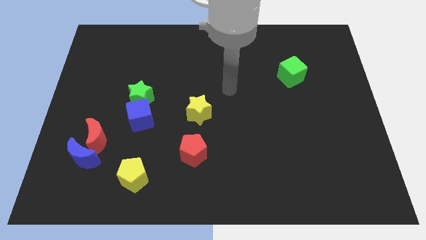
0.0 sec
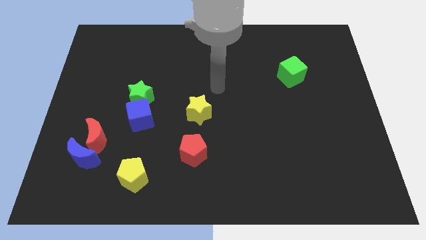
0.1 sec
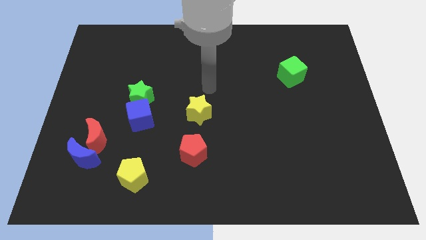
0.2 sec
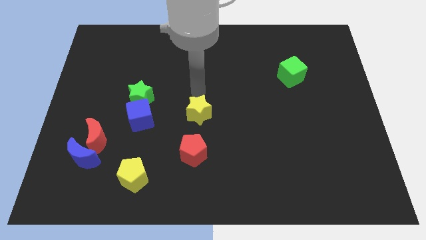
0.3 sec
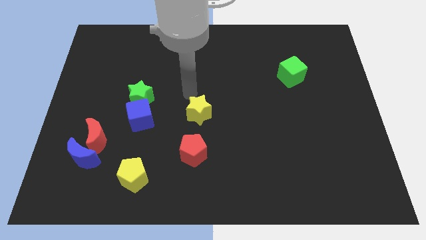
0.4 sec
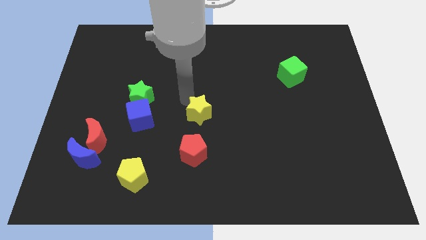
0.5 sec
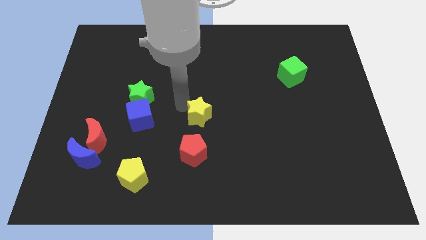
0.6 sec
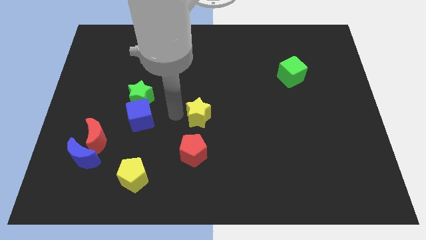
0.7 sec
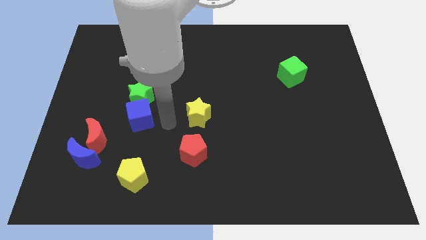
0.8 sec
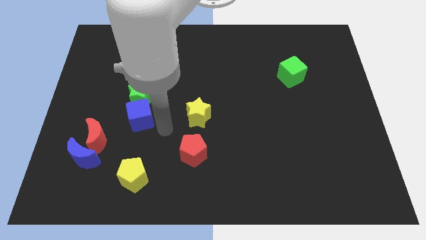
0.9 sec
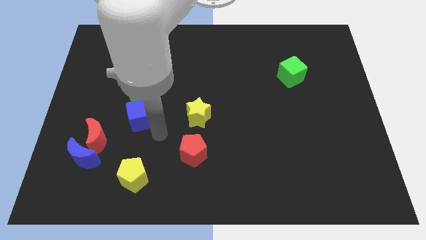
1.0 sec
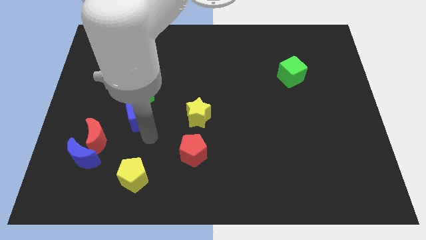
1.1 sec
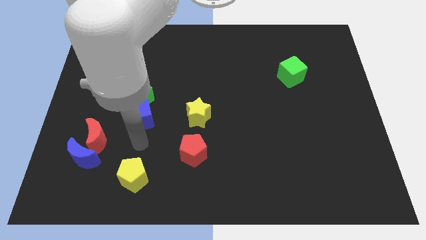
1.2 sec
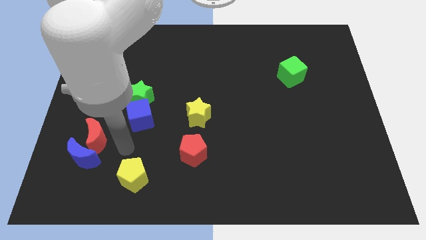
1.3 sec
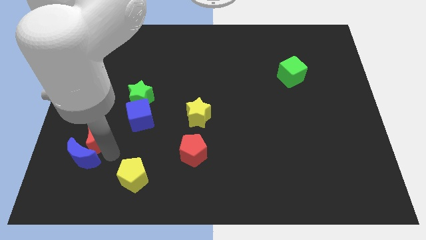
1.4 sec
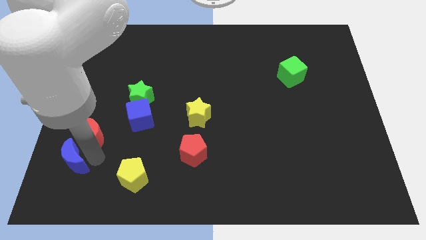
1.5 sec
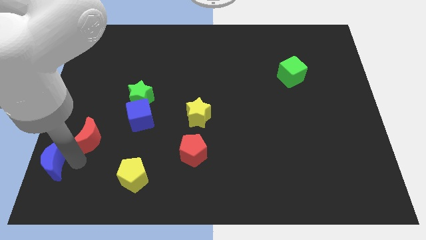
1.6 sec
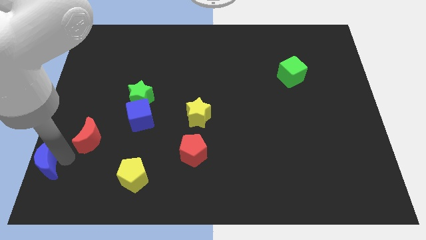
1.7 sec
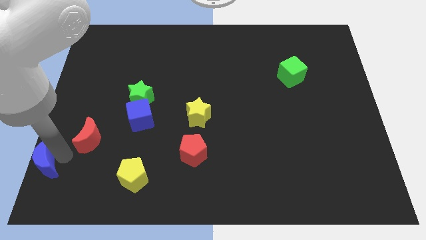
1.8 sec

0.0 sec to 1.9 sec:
separate the red moon from the blue moon

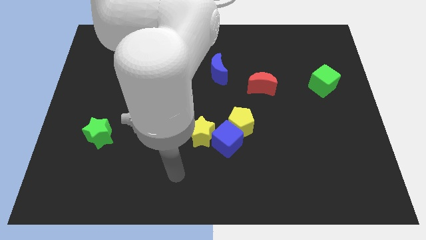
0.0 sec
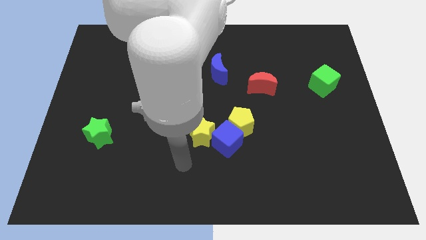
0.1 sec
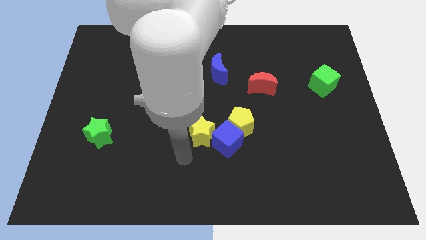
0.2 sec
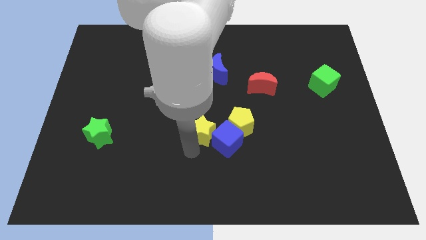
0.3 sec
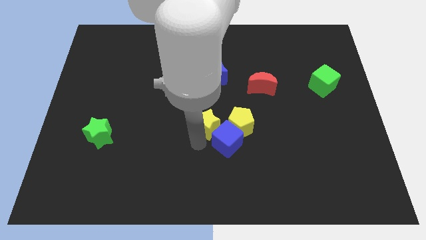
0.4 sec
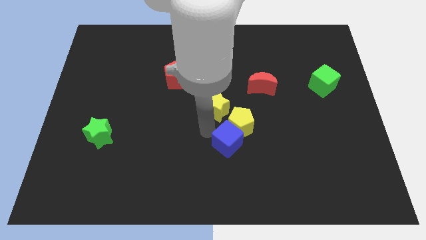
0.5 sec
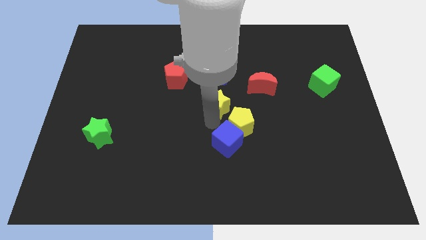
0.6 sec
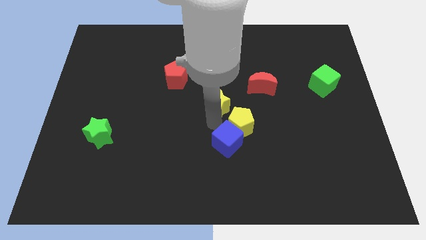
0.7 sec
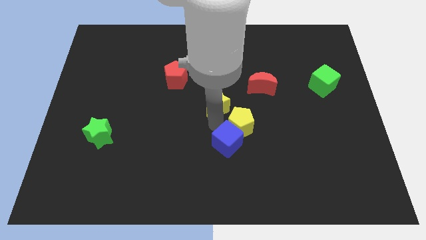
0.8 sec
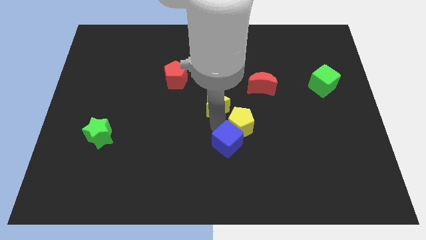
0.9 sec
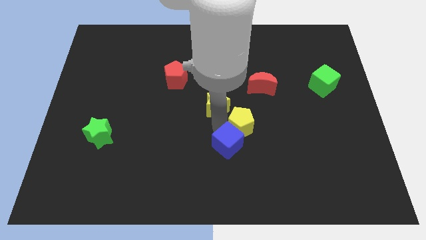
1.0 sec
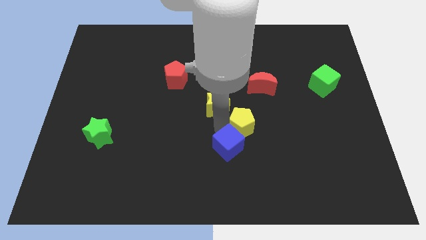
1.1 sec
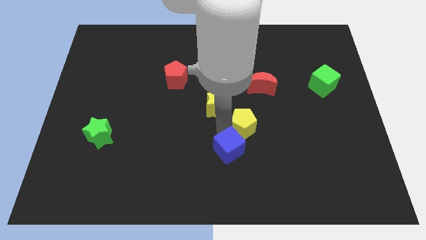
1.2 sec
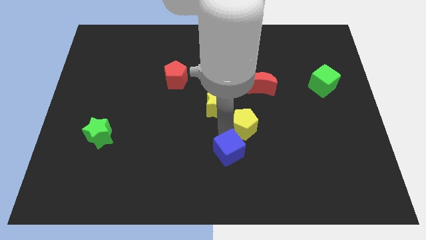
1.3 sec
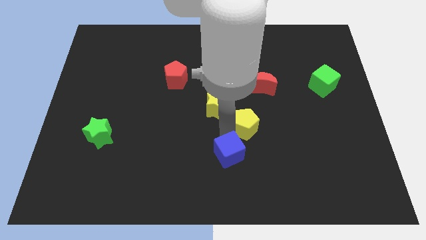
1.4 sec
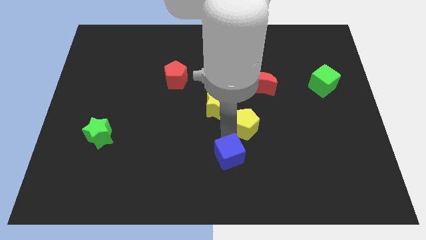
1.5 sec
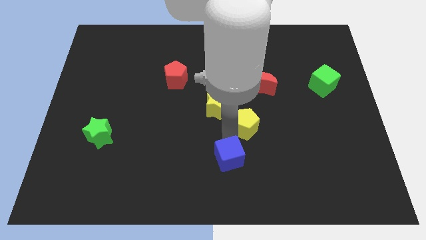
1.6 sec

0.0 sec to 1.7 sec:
move the blue cube away from the yellow pentagon and yellow star

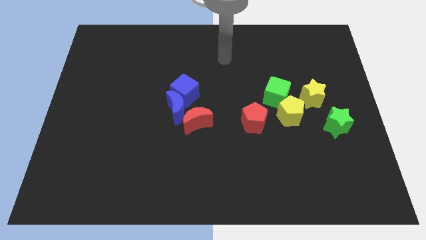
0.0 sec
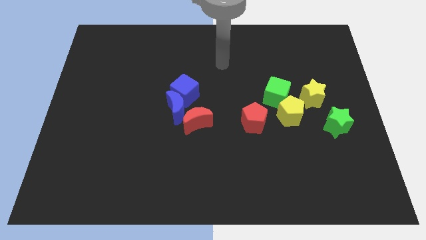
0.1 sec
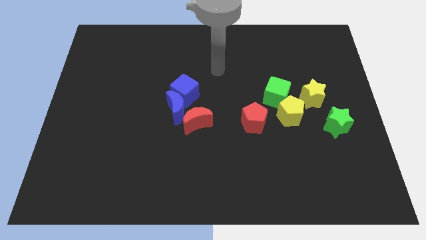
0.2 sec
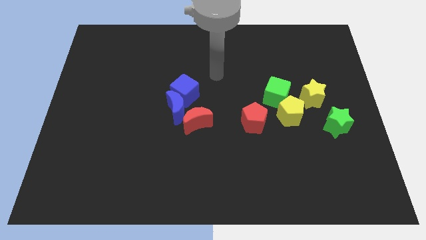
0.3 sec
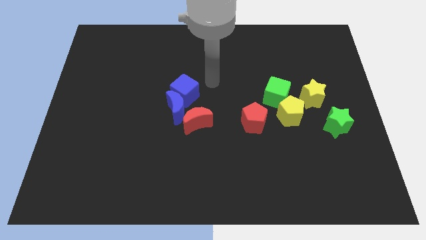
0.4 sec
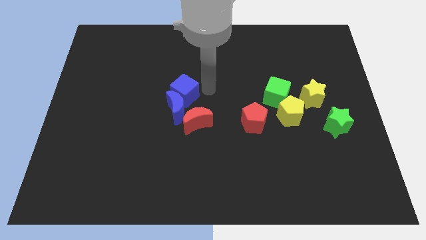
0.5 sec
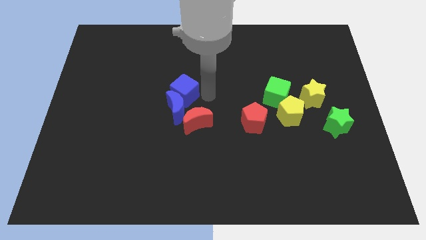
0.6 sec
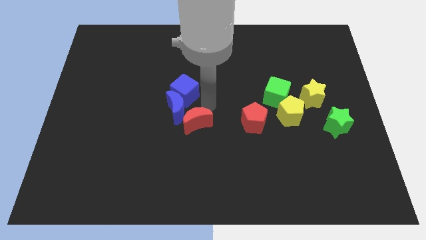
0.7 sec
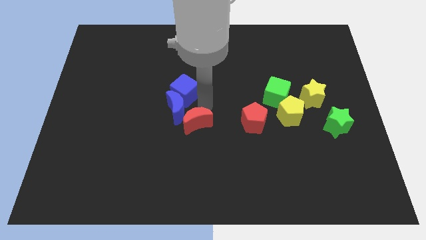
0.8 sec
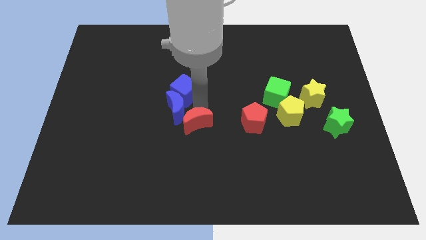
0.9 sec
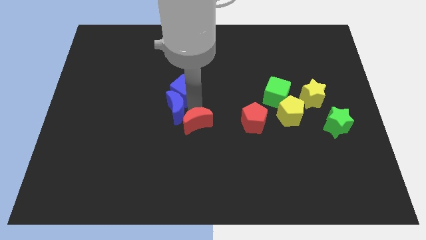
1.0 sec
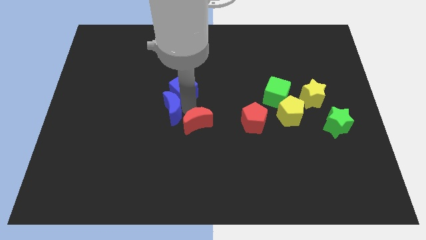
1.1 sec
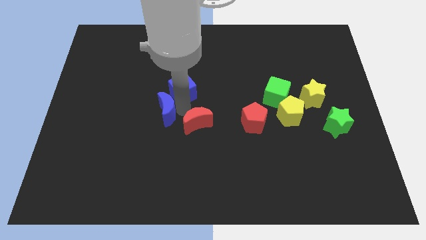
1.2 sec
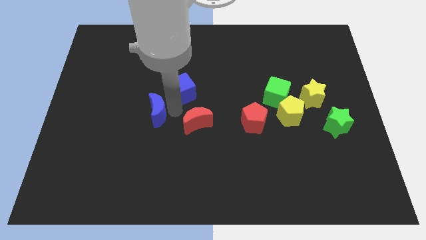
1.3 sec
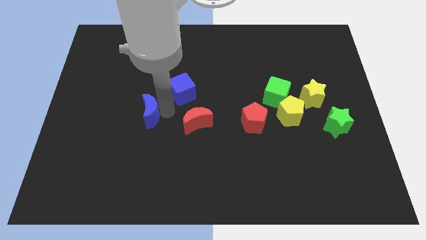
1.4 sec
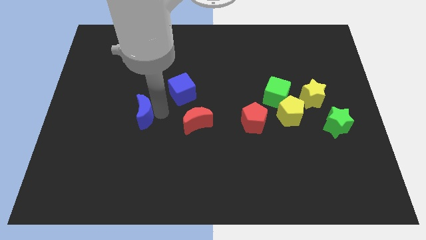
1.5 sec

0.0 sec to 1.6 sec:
pull the blue moon apart from the blue cube and red moon

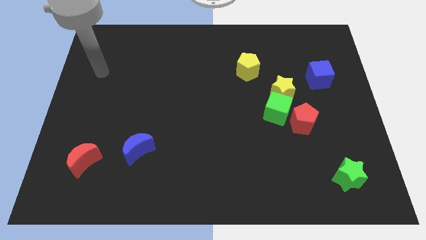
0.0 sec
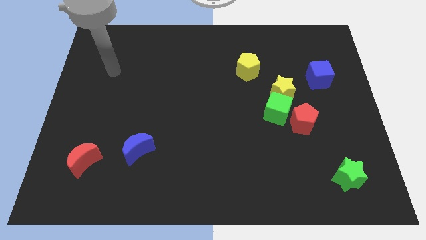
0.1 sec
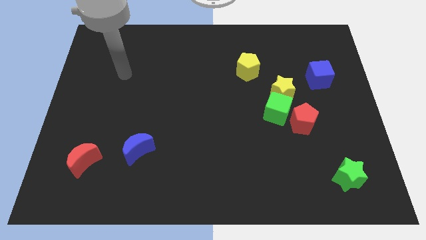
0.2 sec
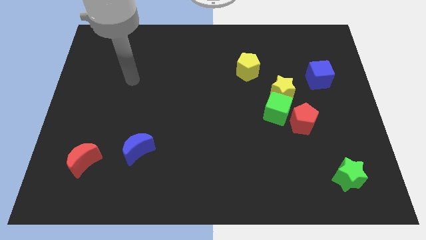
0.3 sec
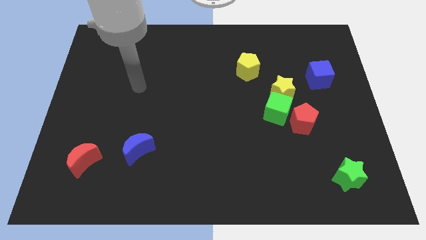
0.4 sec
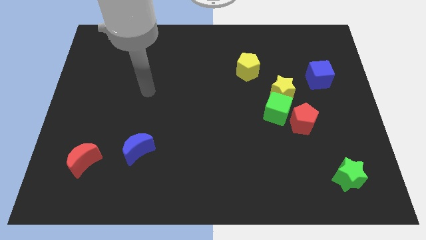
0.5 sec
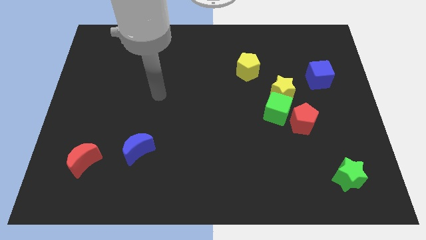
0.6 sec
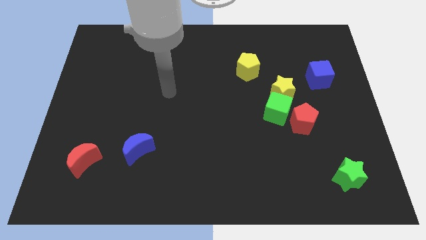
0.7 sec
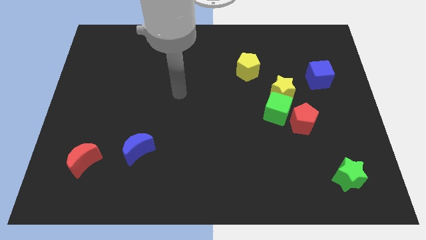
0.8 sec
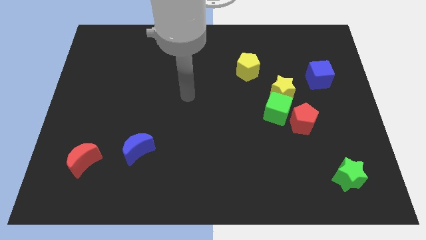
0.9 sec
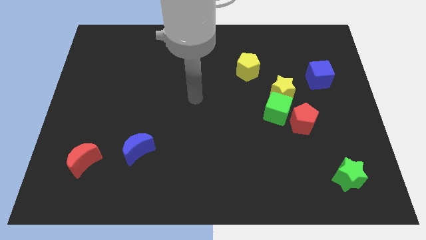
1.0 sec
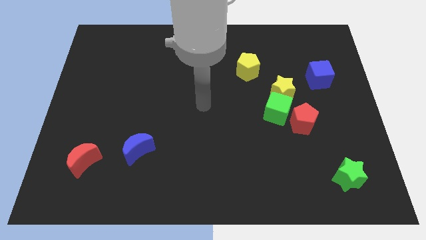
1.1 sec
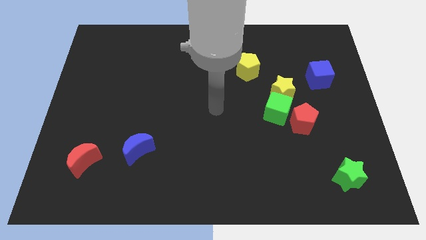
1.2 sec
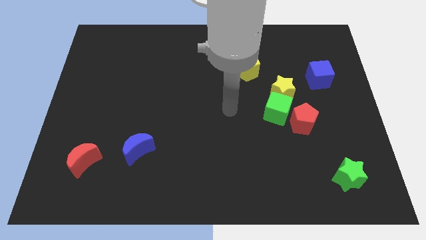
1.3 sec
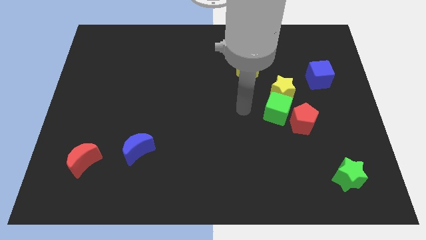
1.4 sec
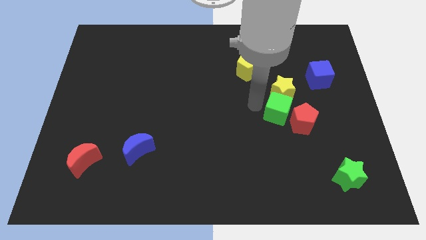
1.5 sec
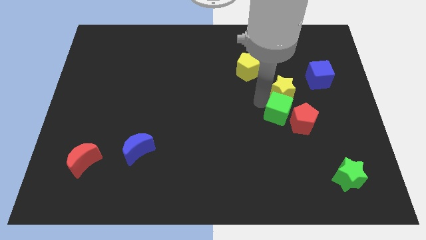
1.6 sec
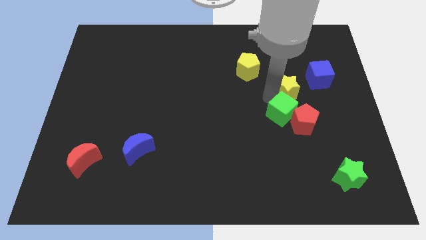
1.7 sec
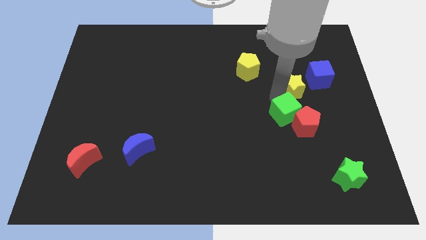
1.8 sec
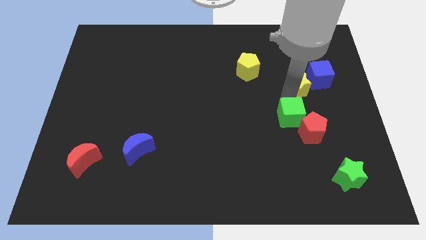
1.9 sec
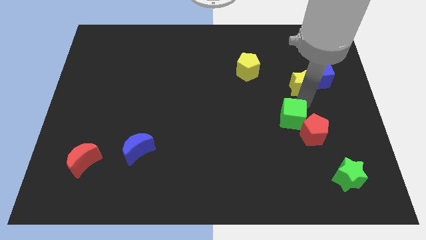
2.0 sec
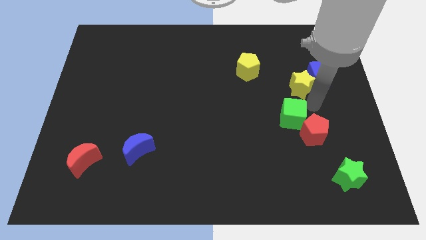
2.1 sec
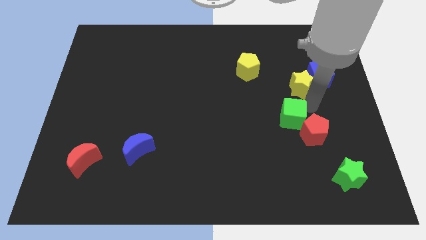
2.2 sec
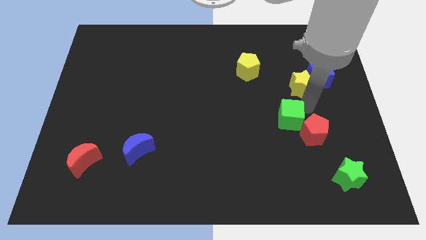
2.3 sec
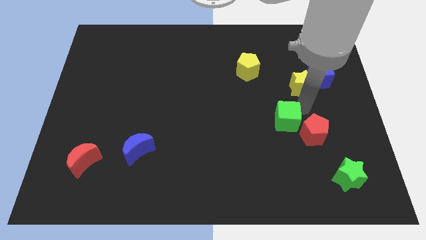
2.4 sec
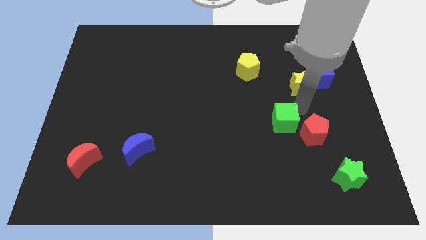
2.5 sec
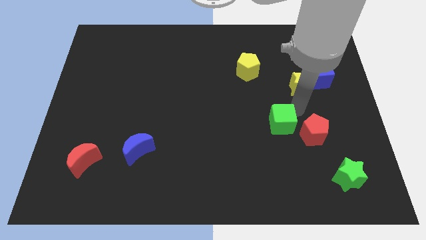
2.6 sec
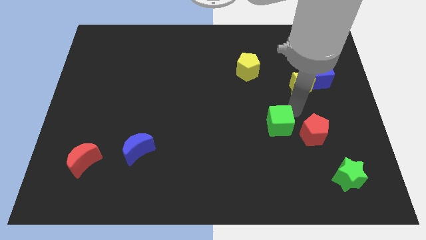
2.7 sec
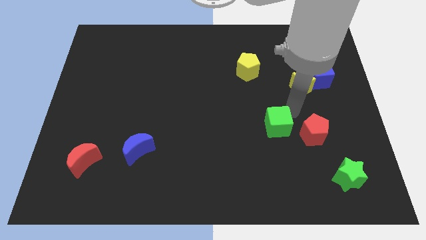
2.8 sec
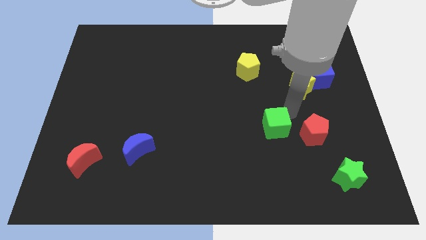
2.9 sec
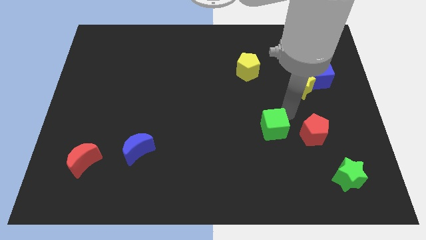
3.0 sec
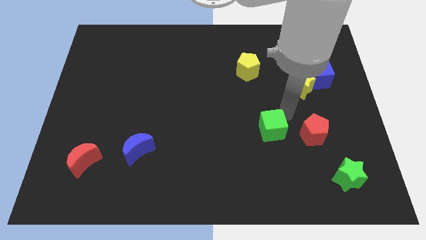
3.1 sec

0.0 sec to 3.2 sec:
move the green cube away from the yellow star and red pentagon

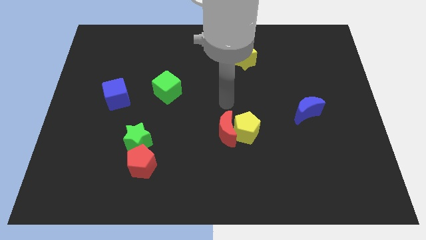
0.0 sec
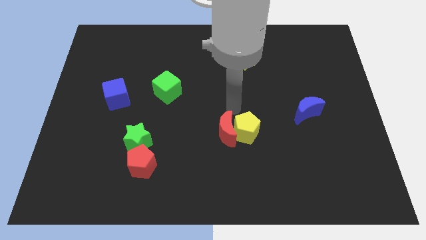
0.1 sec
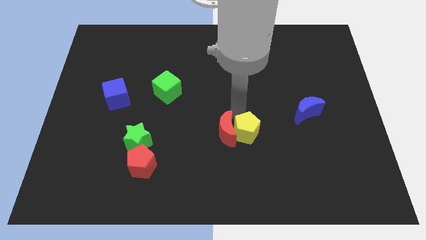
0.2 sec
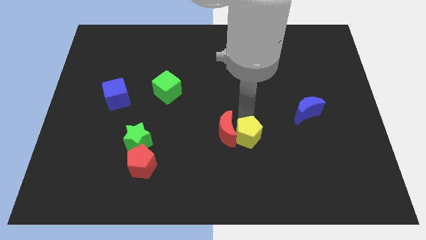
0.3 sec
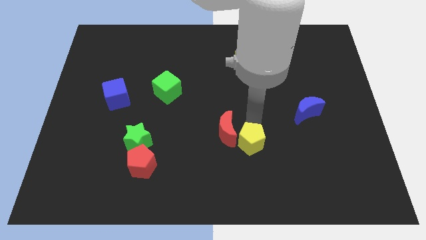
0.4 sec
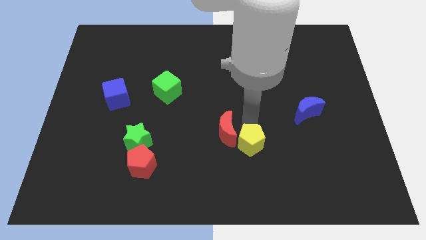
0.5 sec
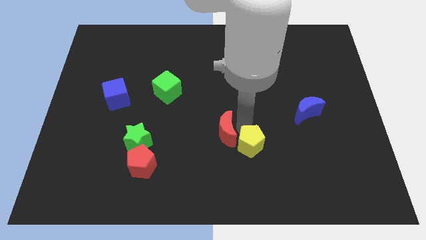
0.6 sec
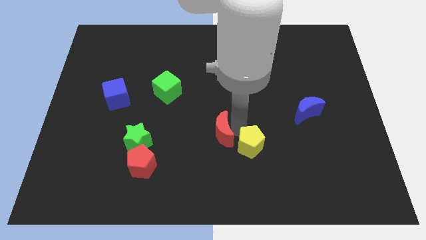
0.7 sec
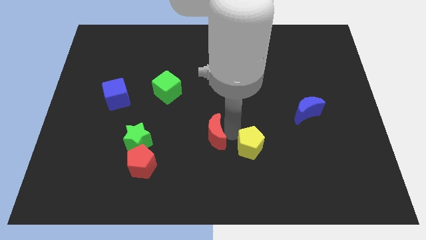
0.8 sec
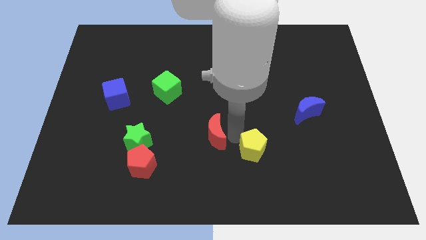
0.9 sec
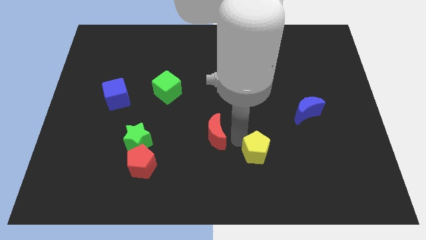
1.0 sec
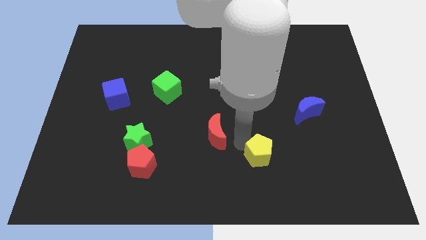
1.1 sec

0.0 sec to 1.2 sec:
separate the red moon from the yellow pentagon
